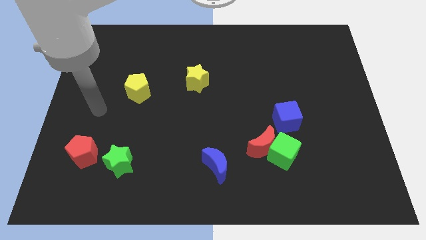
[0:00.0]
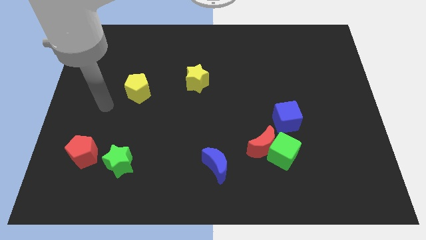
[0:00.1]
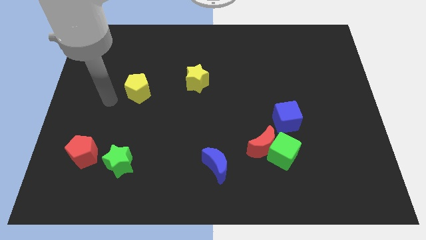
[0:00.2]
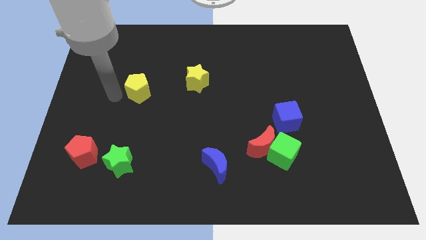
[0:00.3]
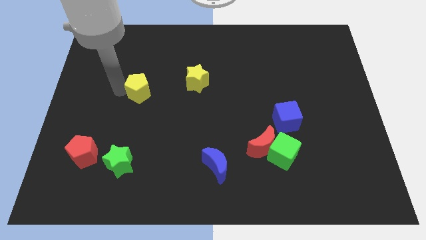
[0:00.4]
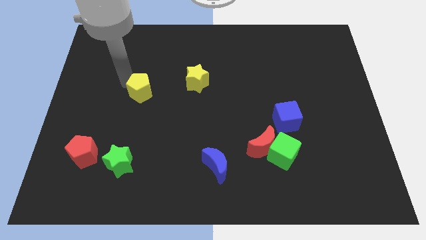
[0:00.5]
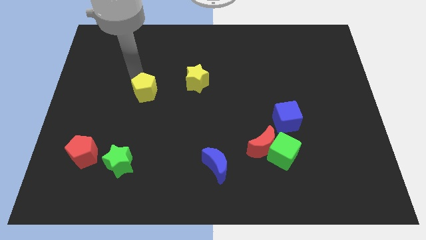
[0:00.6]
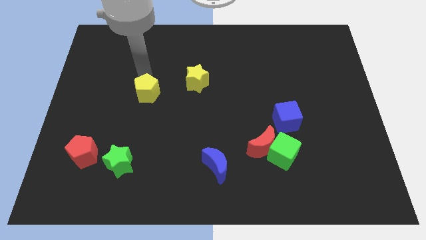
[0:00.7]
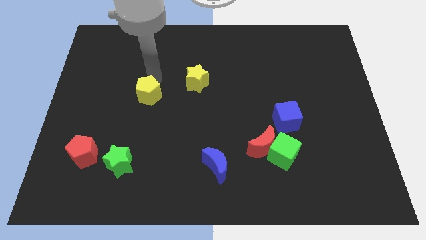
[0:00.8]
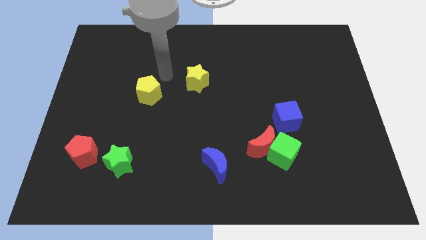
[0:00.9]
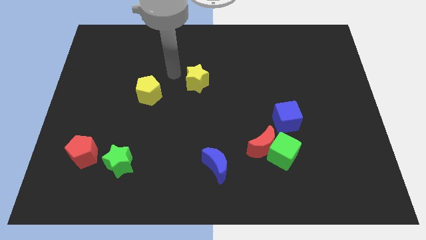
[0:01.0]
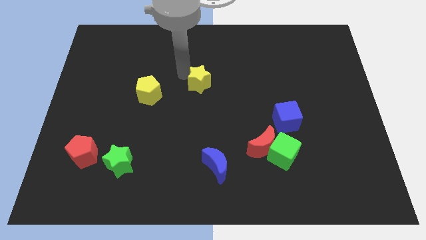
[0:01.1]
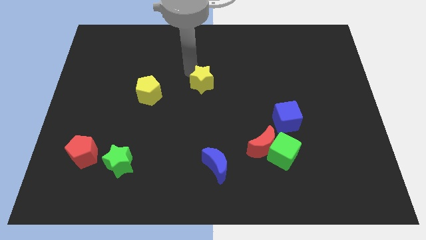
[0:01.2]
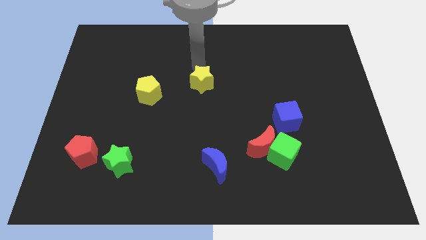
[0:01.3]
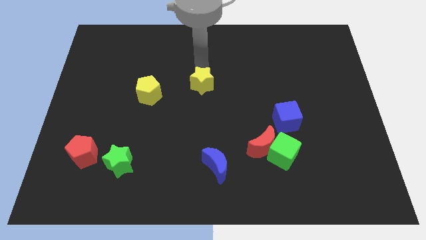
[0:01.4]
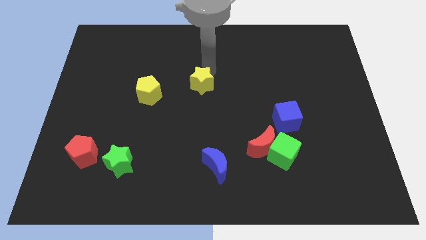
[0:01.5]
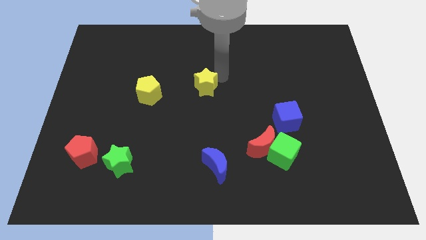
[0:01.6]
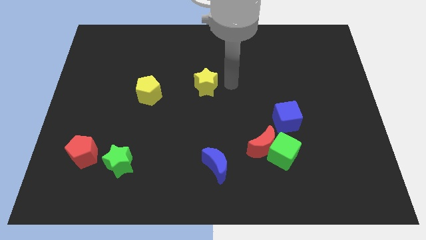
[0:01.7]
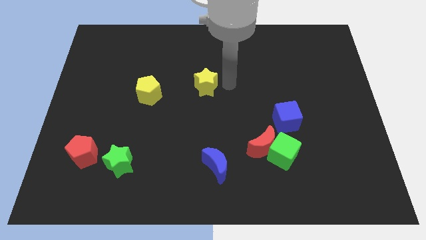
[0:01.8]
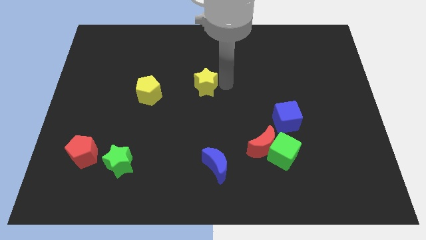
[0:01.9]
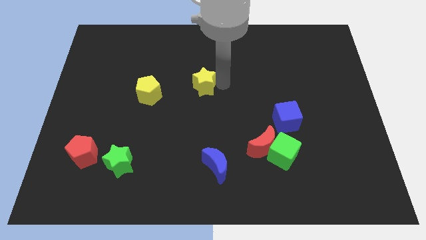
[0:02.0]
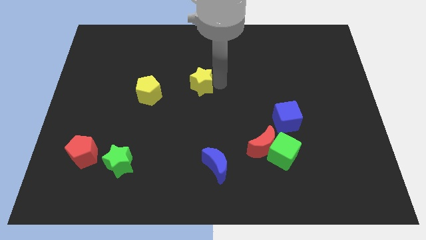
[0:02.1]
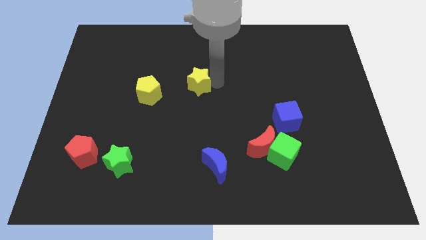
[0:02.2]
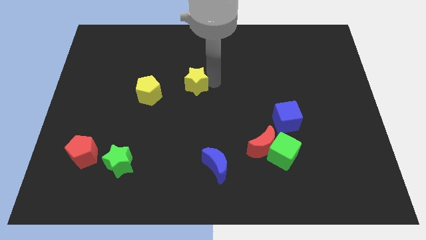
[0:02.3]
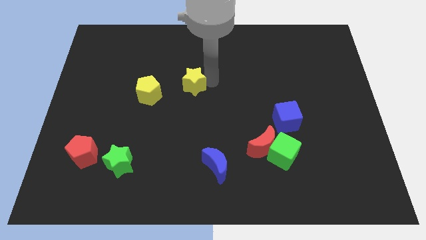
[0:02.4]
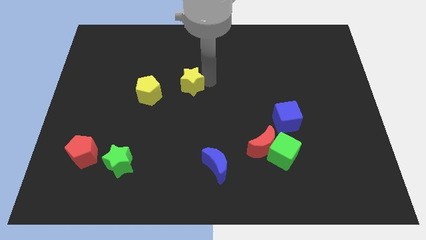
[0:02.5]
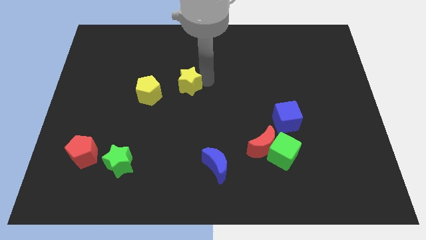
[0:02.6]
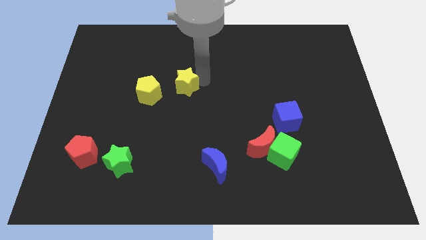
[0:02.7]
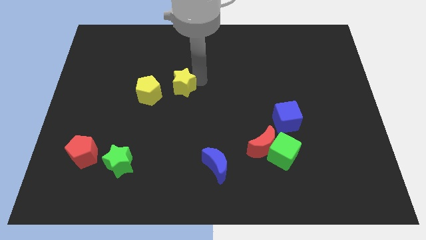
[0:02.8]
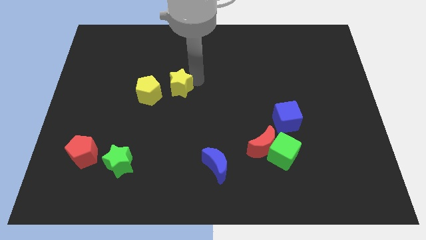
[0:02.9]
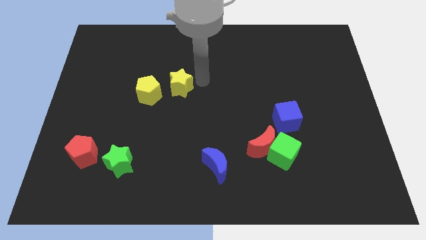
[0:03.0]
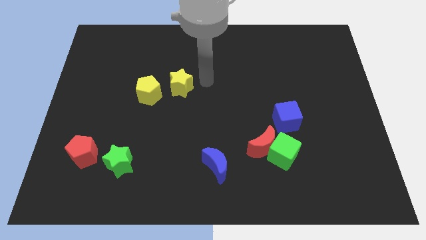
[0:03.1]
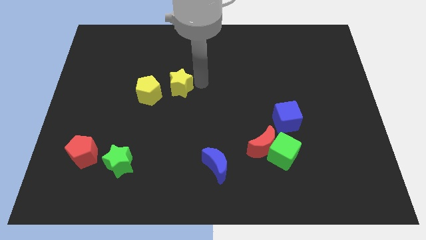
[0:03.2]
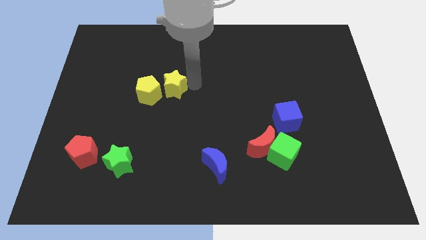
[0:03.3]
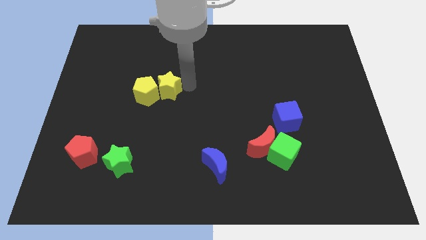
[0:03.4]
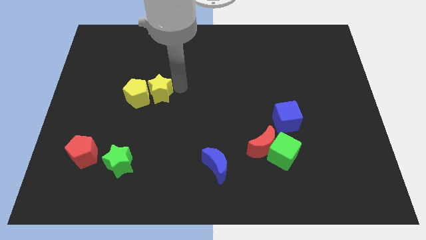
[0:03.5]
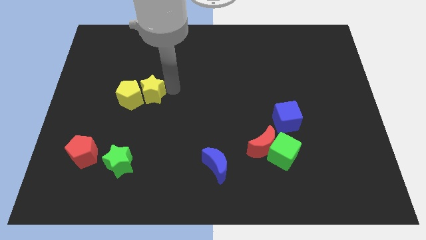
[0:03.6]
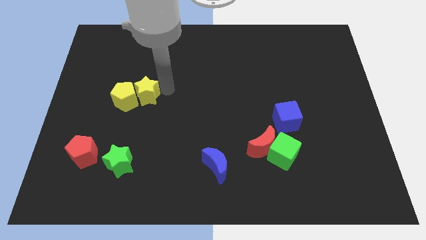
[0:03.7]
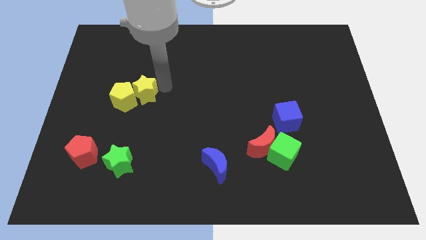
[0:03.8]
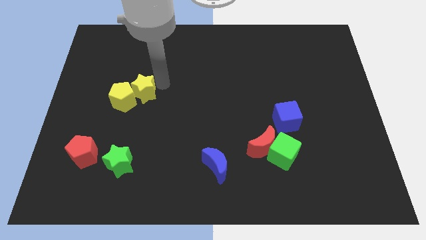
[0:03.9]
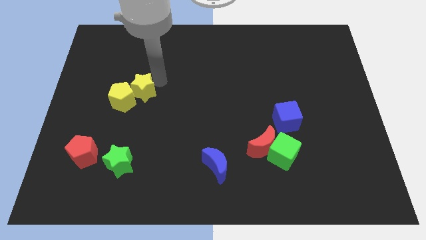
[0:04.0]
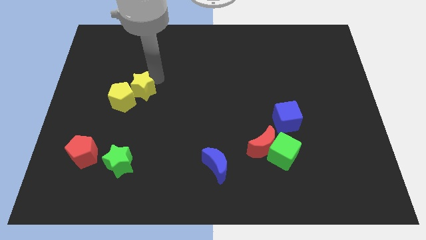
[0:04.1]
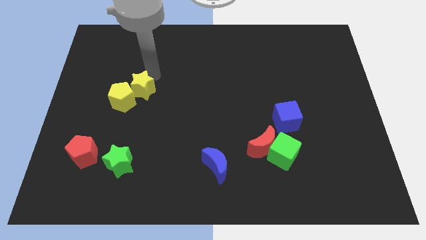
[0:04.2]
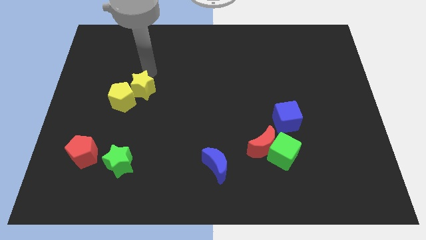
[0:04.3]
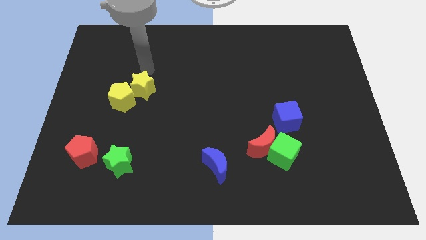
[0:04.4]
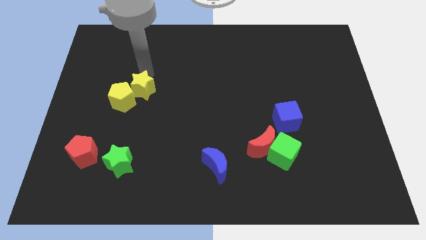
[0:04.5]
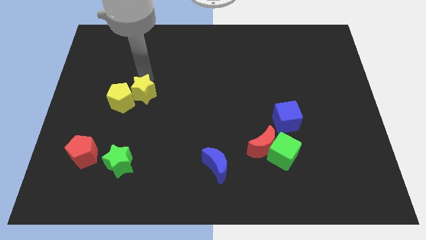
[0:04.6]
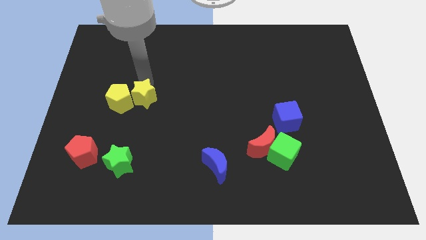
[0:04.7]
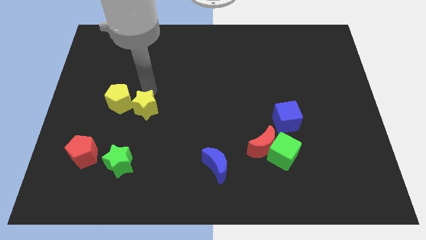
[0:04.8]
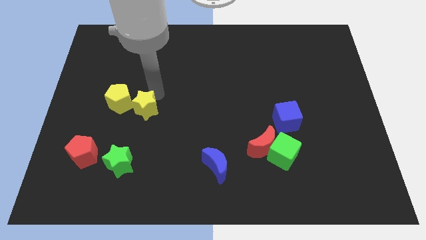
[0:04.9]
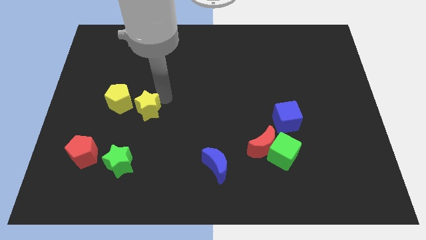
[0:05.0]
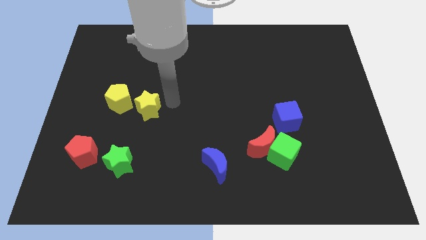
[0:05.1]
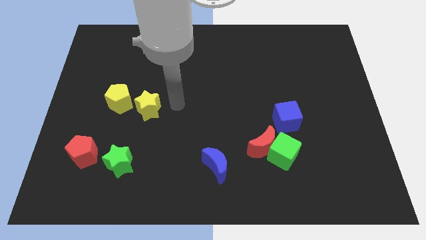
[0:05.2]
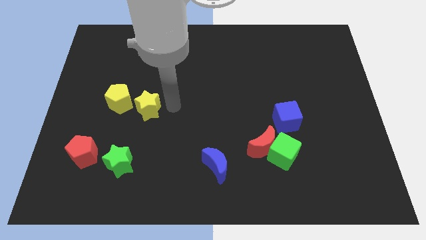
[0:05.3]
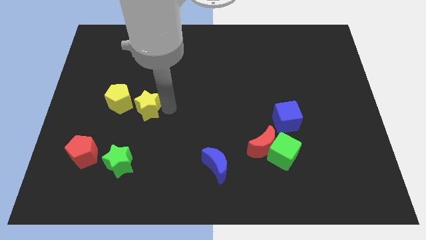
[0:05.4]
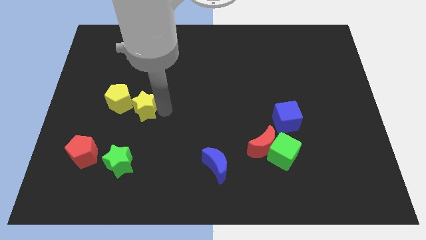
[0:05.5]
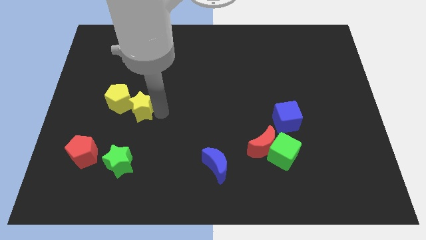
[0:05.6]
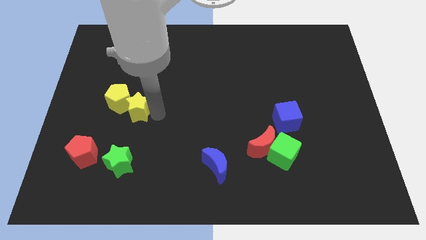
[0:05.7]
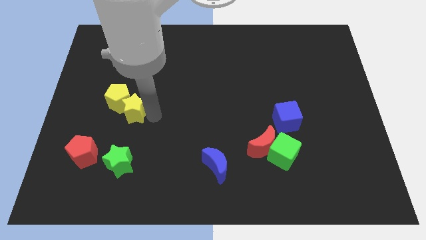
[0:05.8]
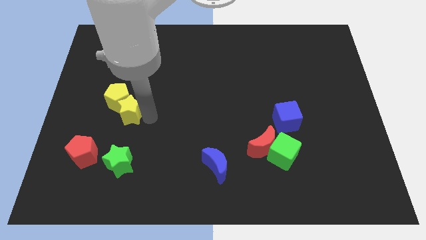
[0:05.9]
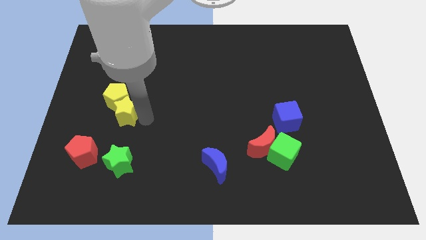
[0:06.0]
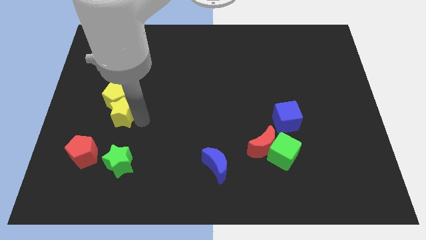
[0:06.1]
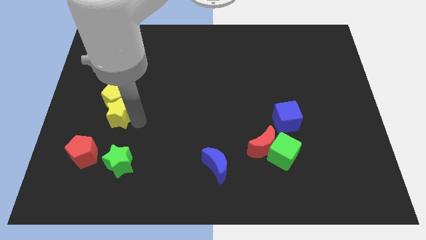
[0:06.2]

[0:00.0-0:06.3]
put the yellow star to the bottom left side of the yellow pentagon

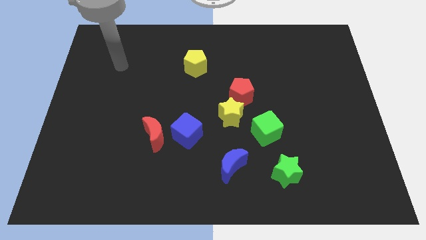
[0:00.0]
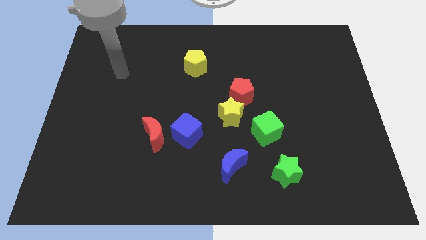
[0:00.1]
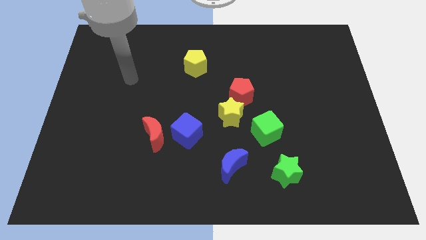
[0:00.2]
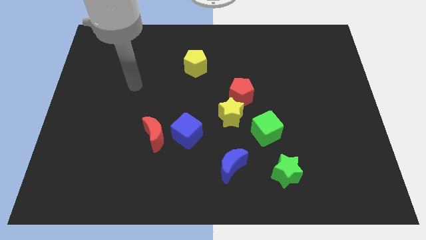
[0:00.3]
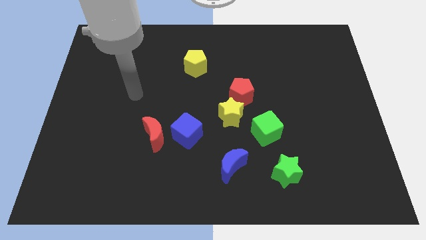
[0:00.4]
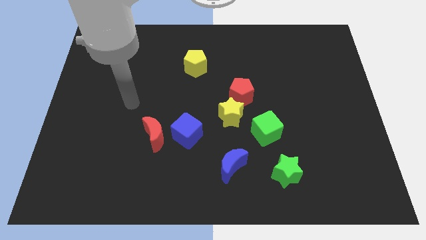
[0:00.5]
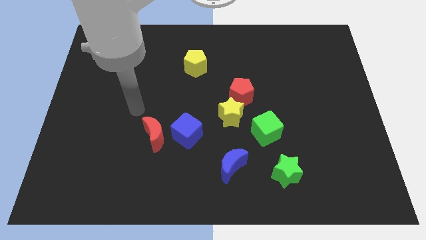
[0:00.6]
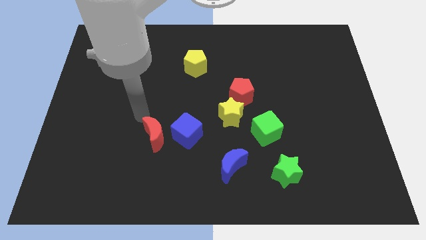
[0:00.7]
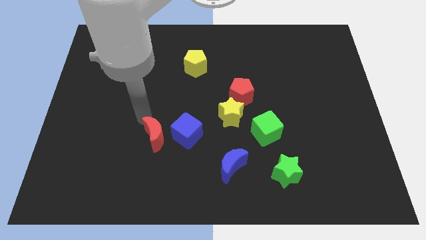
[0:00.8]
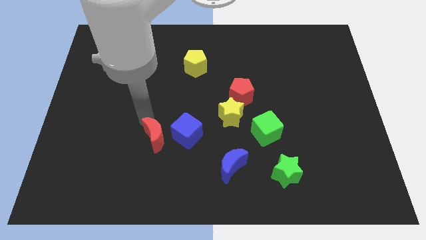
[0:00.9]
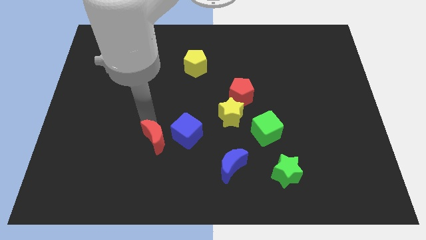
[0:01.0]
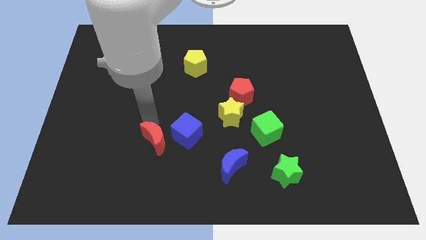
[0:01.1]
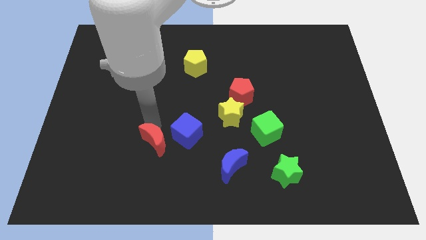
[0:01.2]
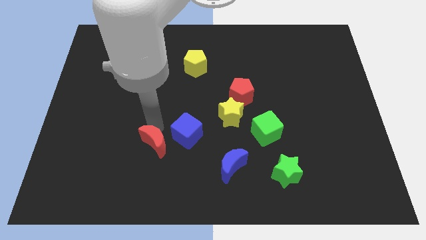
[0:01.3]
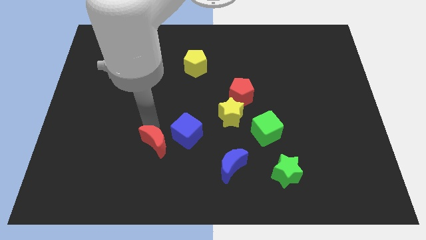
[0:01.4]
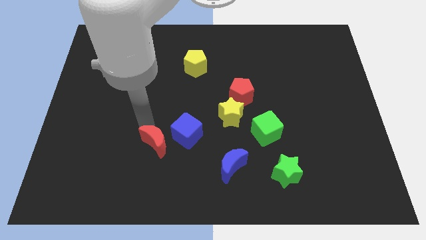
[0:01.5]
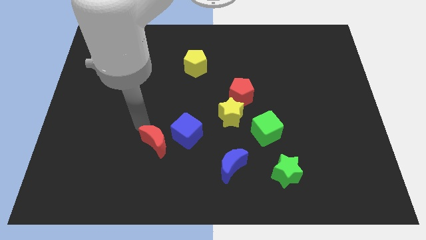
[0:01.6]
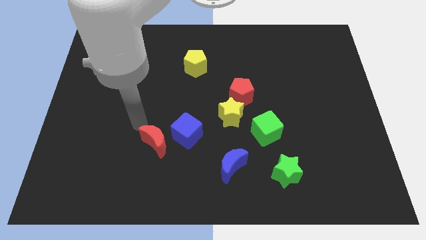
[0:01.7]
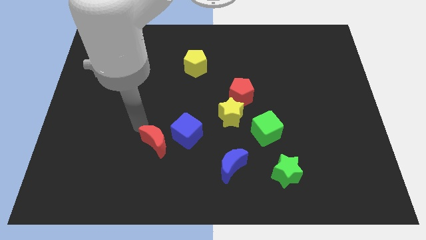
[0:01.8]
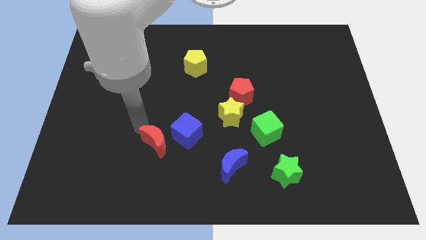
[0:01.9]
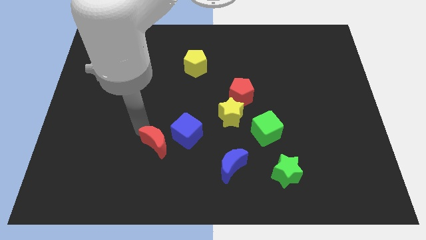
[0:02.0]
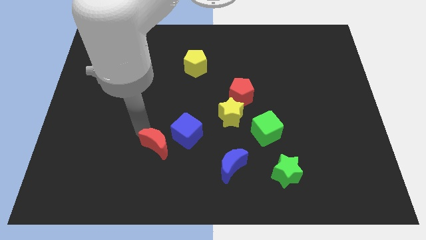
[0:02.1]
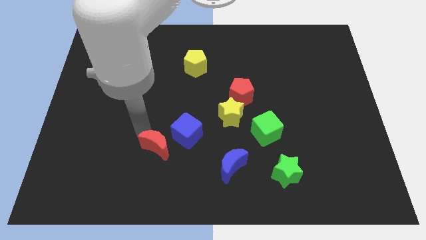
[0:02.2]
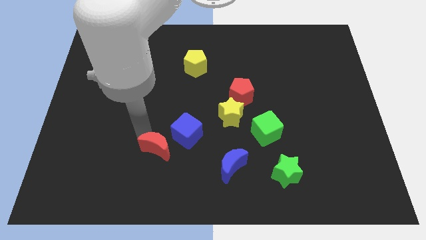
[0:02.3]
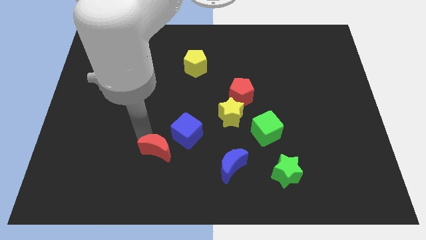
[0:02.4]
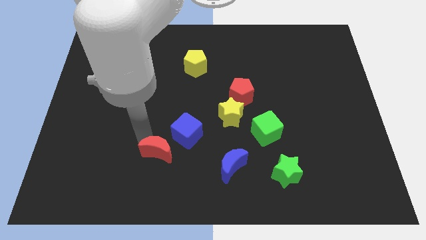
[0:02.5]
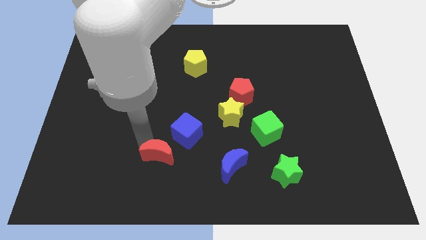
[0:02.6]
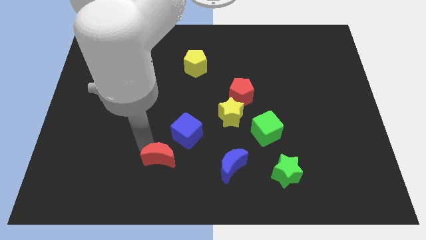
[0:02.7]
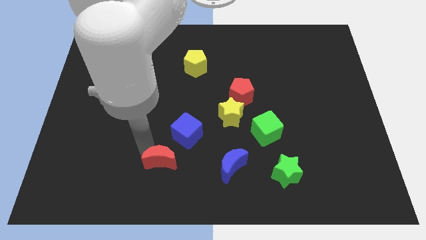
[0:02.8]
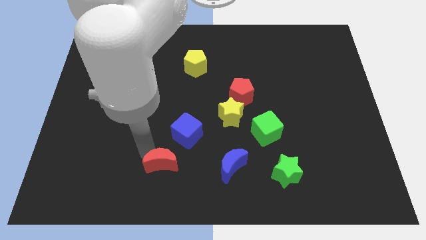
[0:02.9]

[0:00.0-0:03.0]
push the red moon to the bottom of the blue cube
